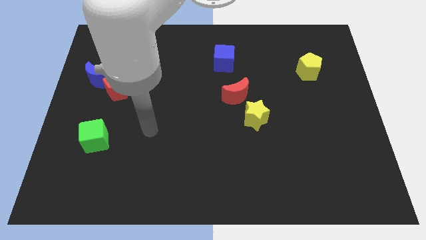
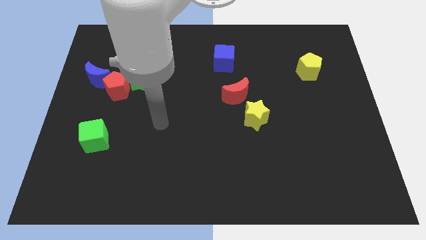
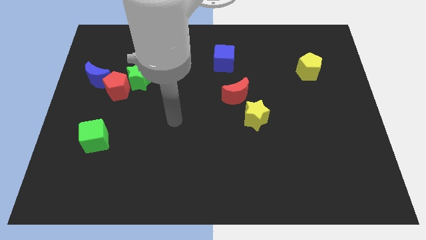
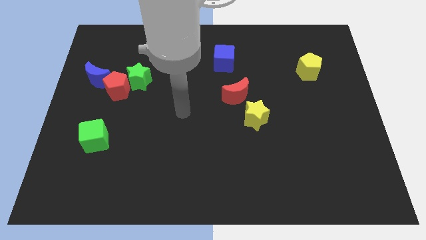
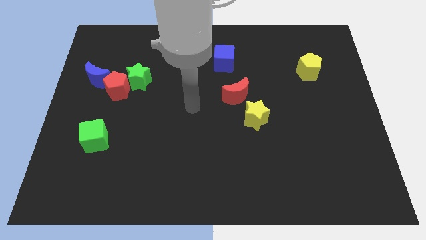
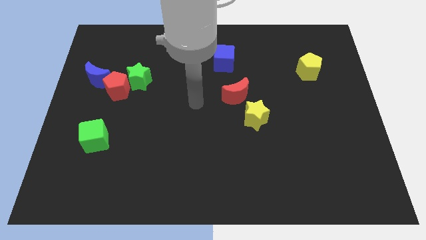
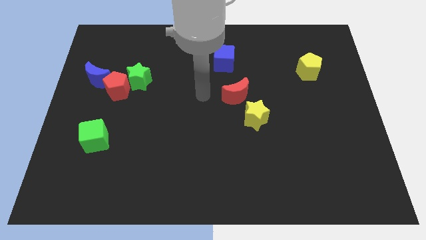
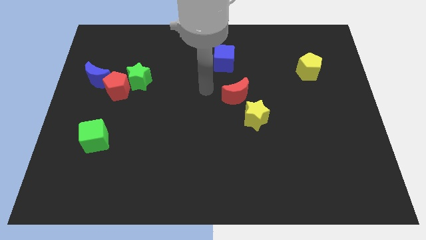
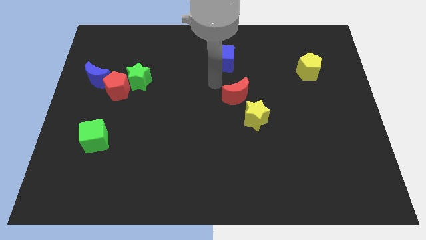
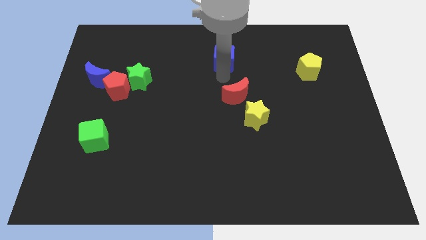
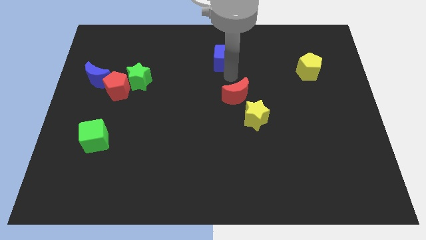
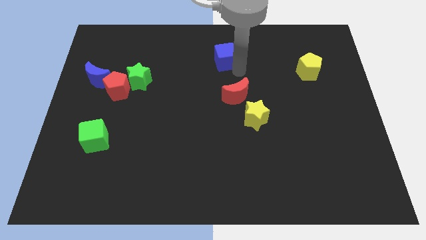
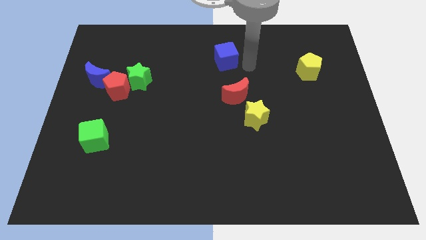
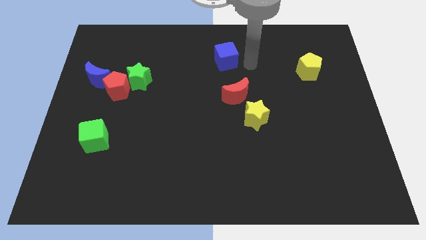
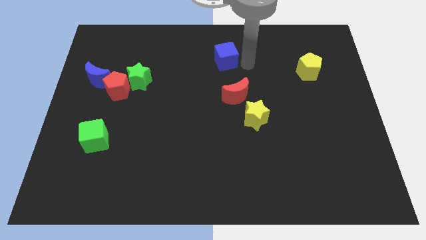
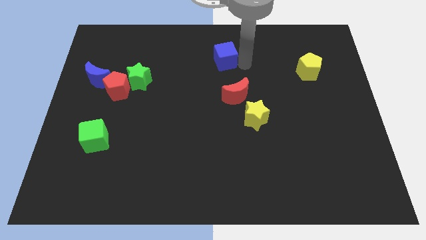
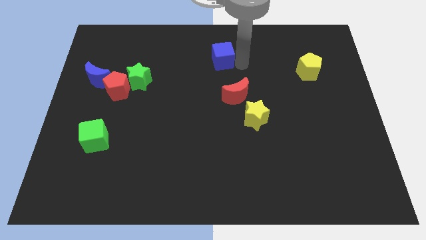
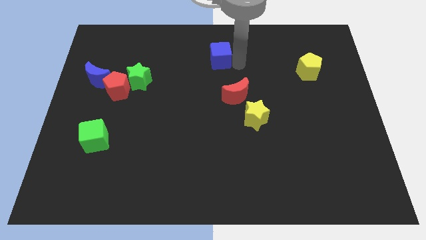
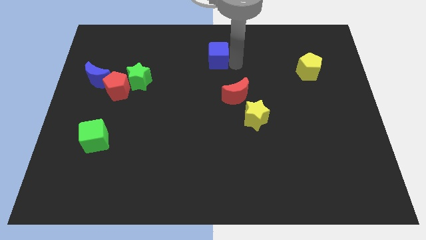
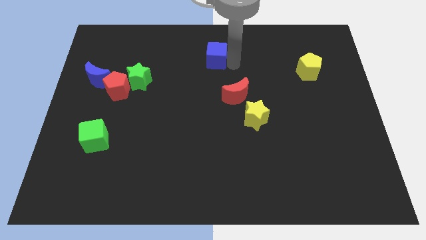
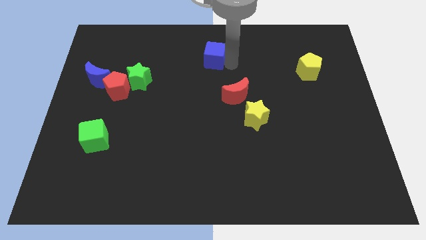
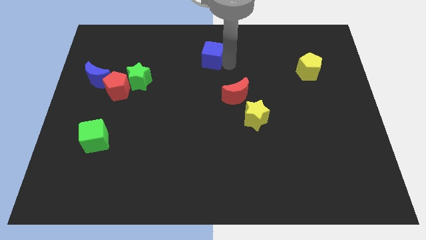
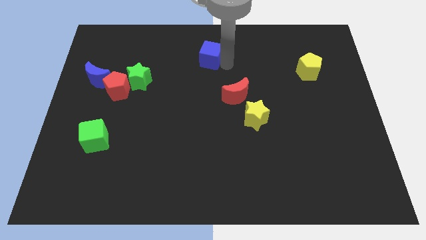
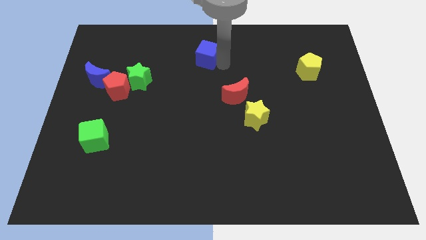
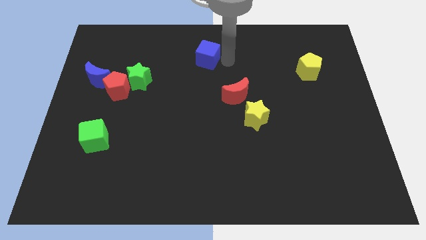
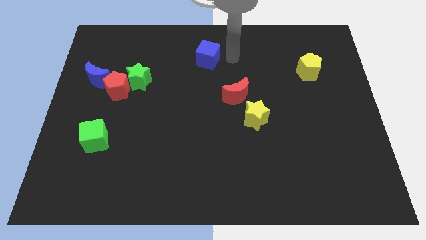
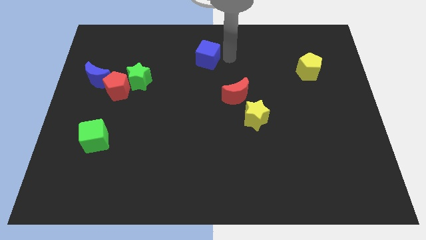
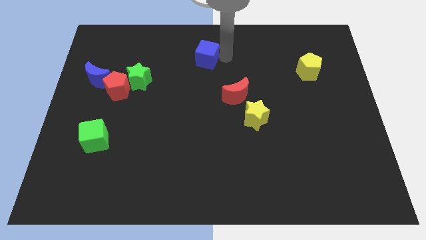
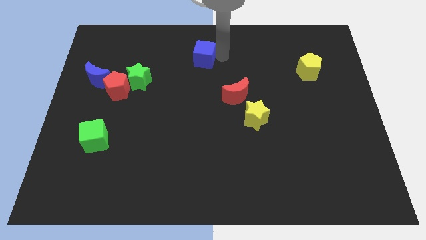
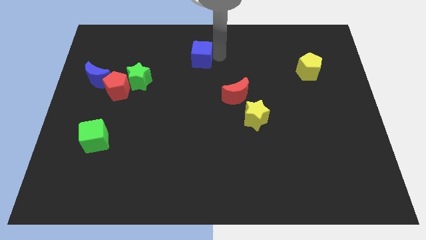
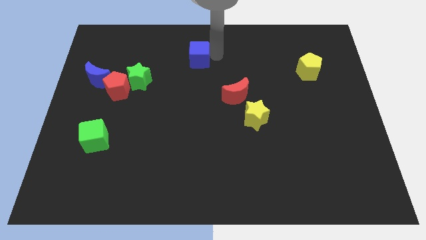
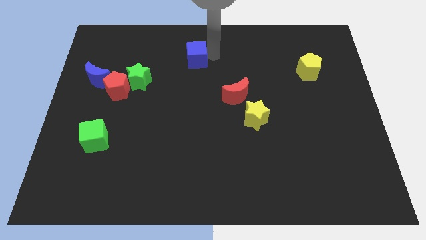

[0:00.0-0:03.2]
slide the blue cube a bit to the left

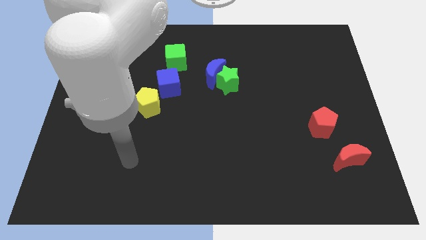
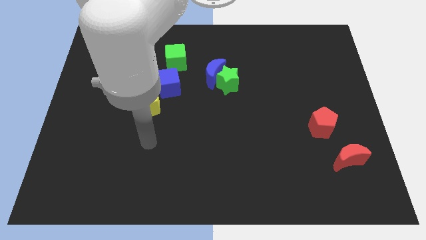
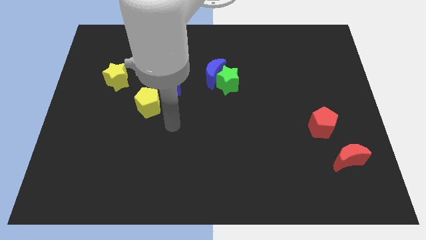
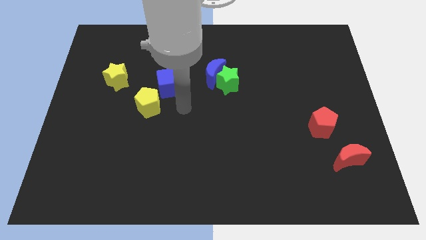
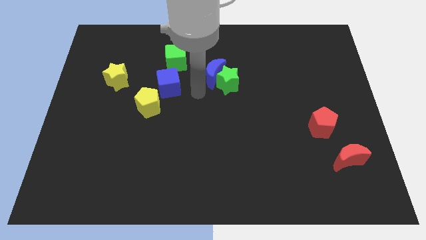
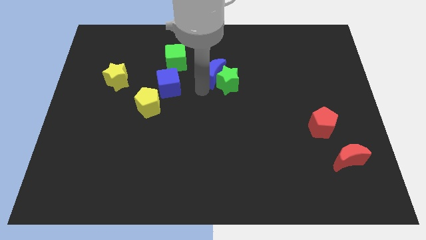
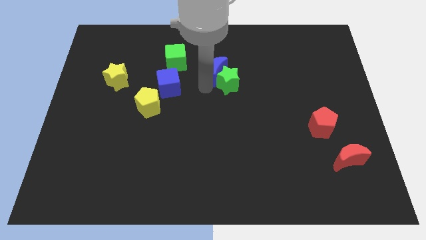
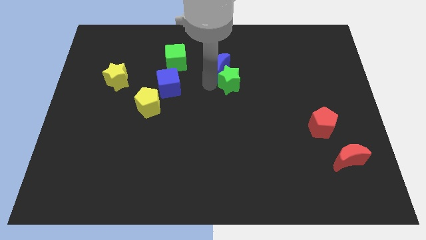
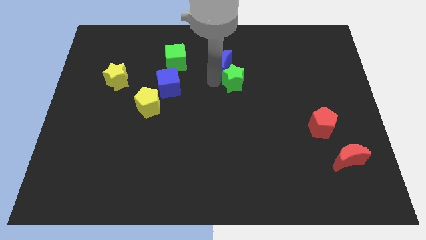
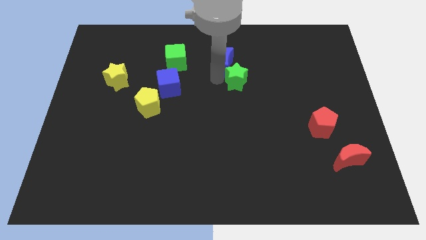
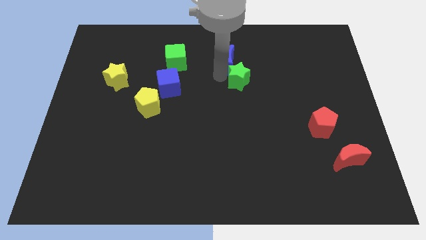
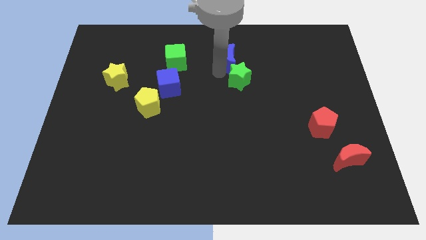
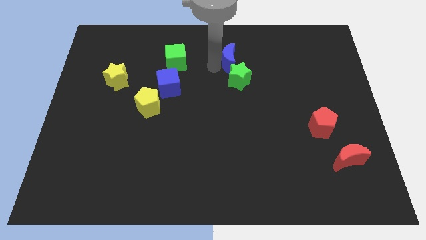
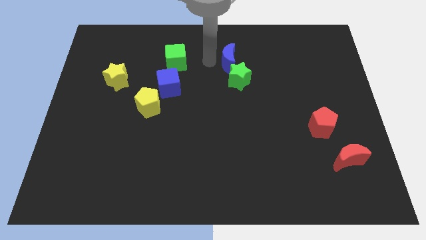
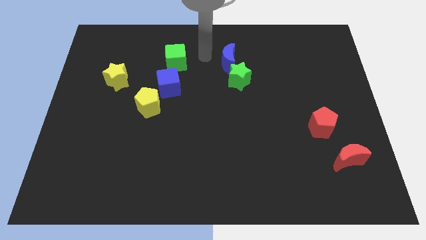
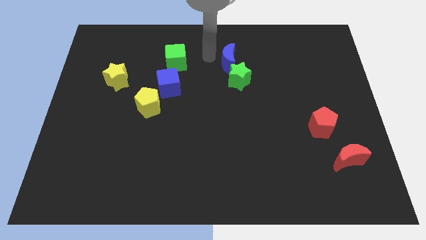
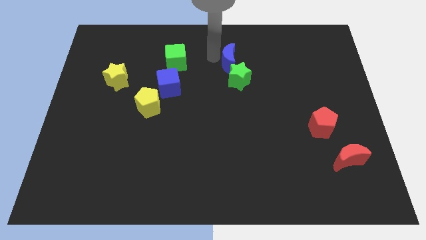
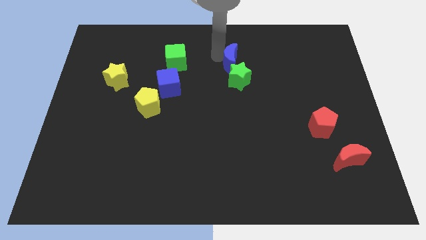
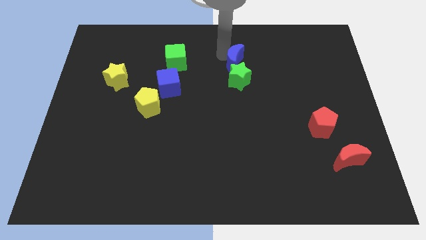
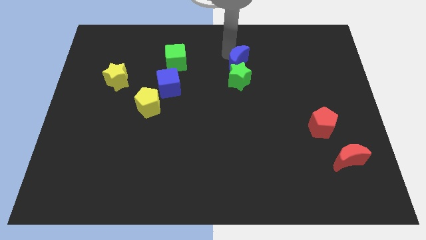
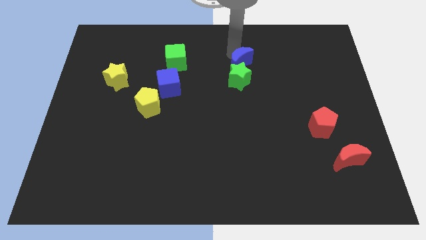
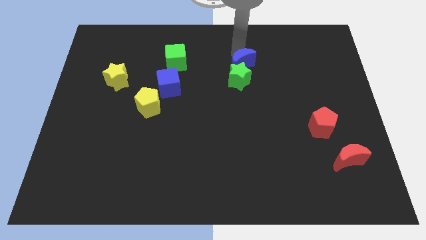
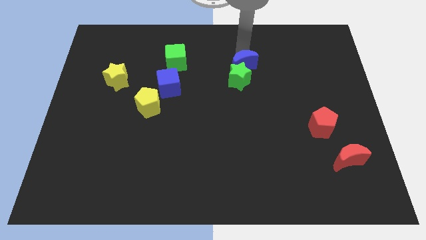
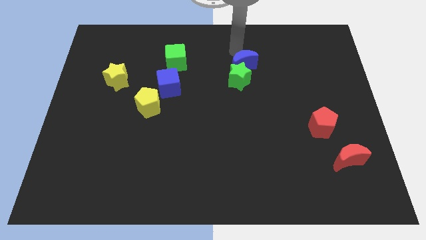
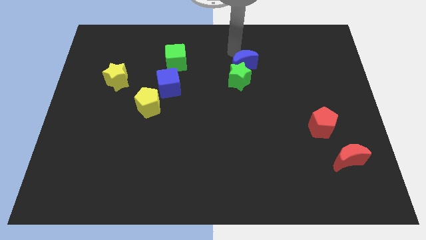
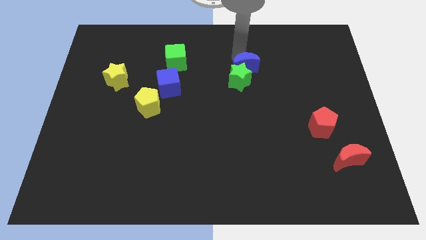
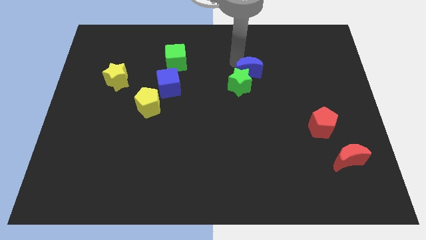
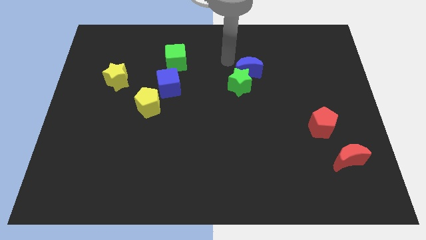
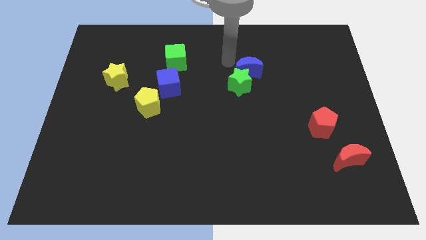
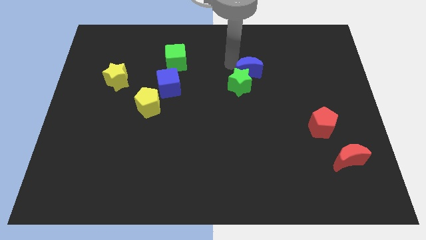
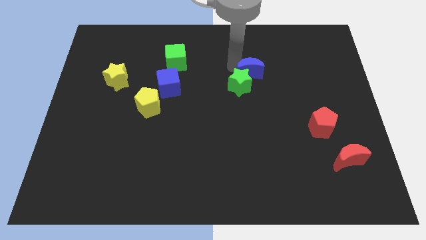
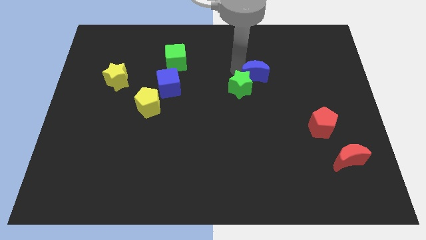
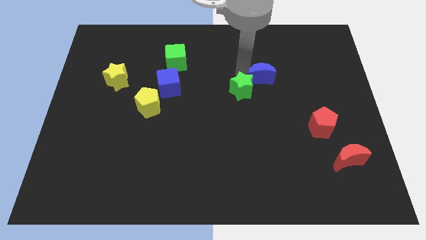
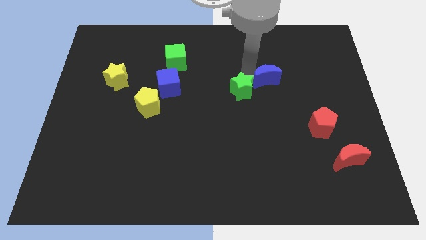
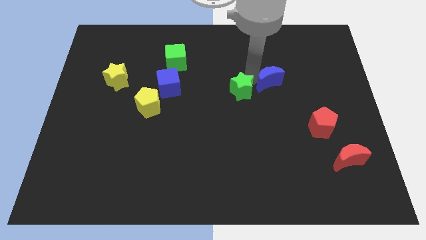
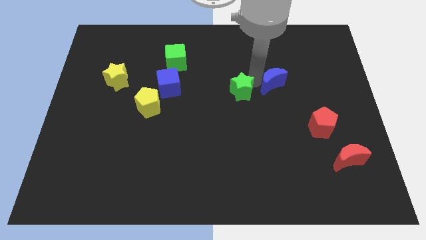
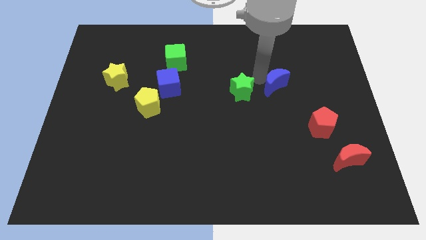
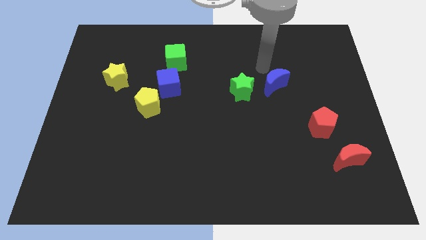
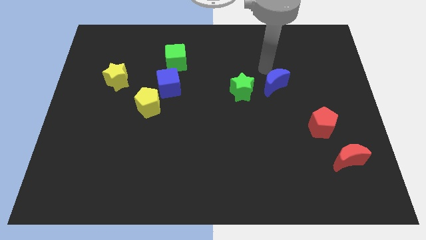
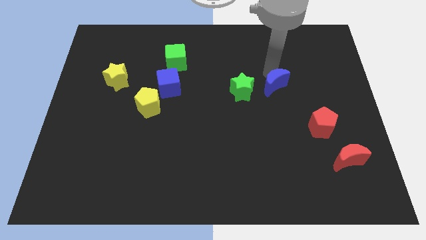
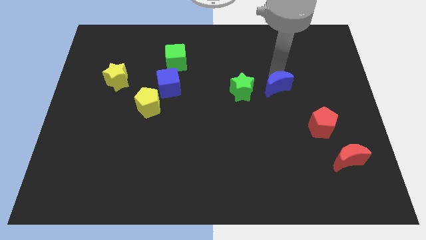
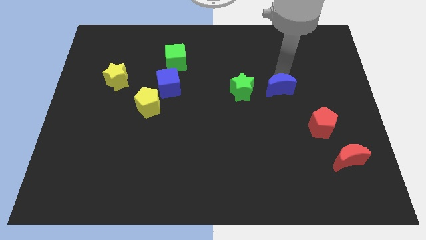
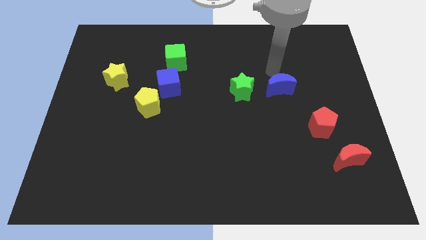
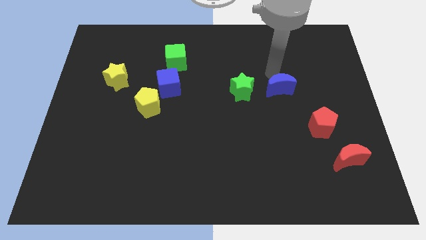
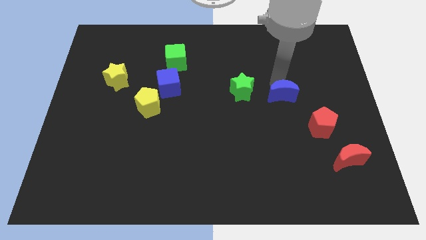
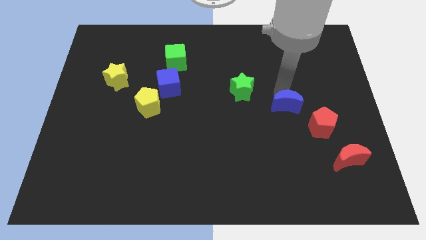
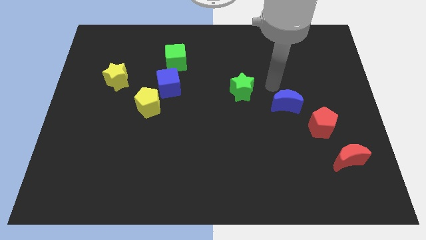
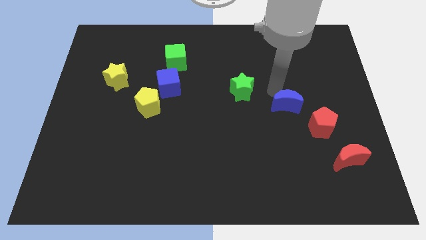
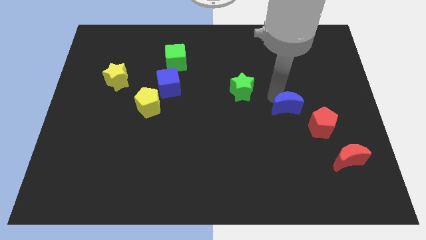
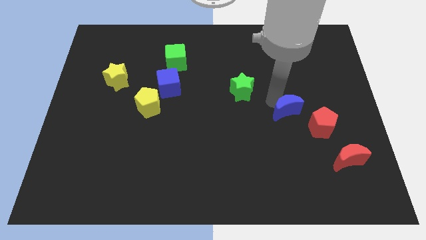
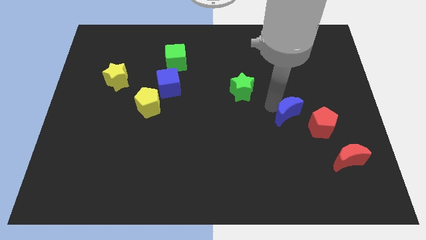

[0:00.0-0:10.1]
move the blue moon downwards and then to the right
